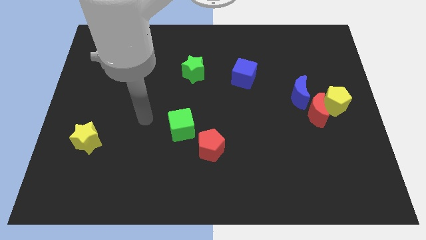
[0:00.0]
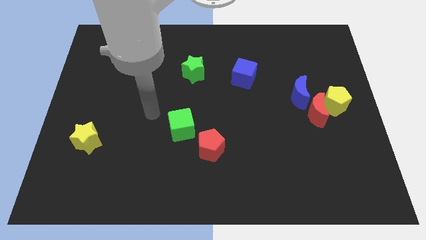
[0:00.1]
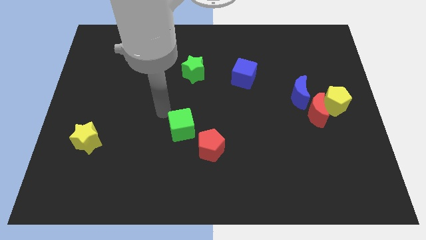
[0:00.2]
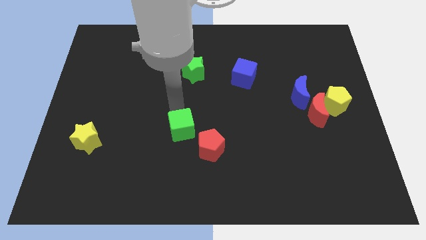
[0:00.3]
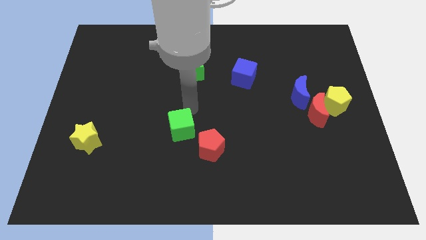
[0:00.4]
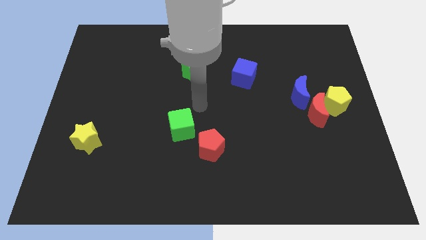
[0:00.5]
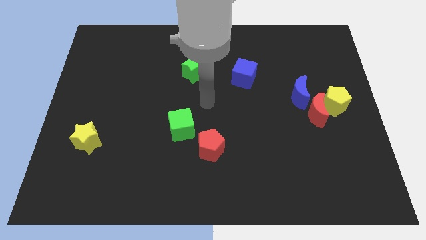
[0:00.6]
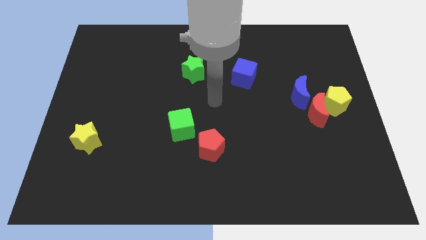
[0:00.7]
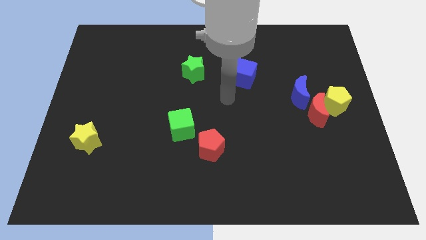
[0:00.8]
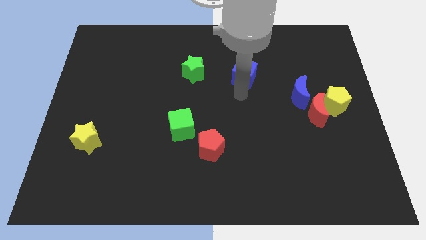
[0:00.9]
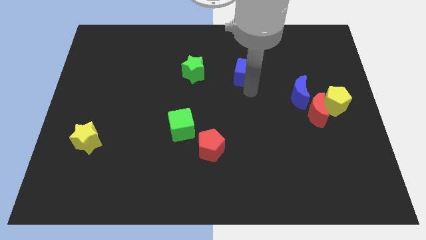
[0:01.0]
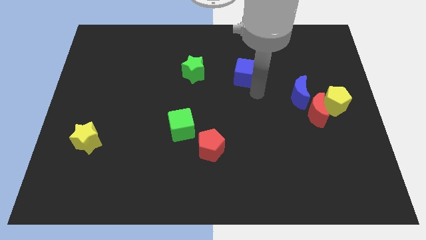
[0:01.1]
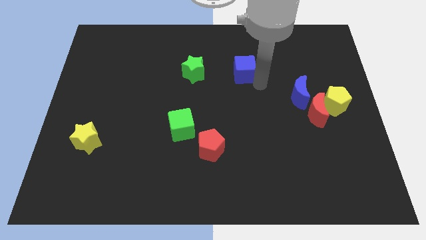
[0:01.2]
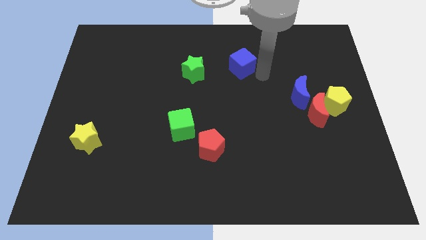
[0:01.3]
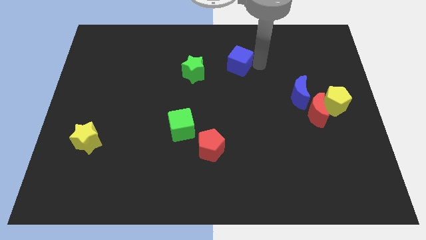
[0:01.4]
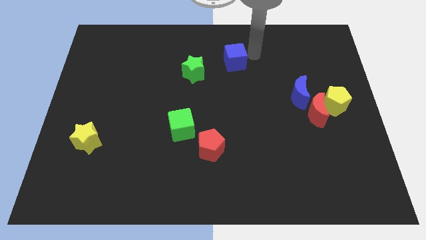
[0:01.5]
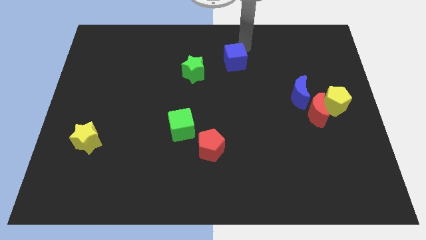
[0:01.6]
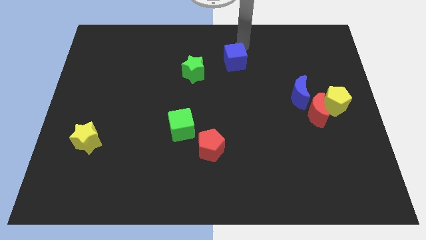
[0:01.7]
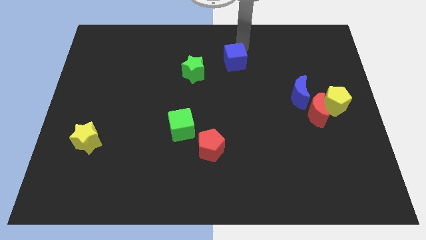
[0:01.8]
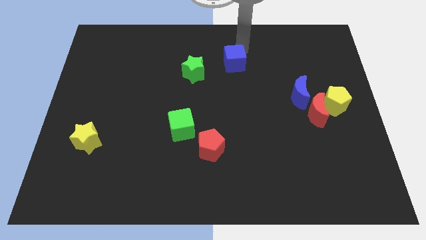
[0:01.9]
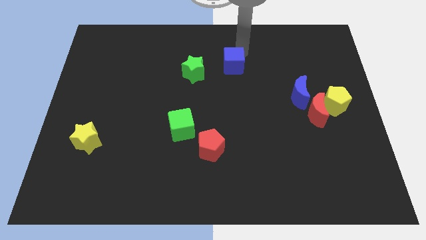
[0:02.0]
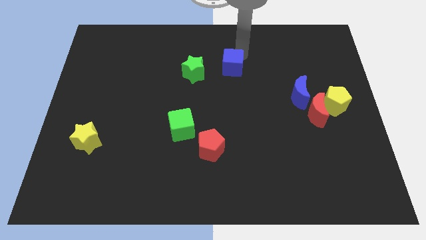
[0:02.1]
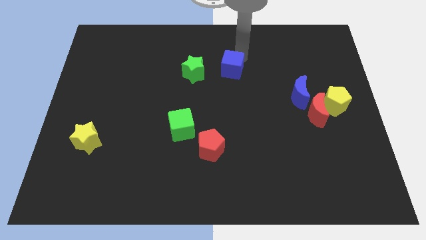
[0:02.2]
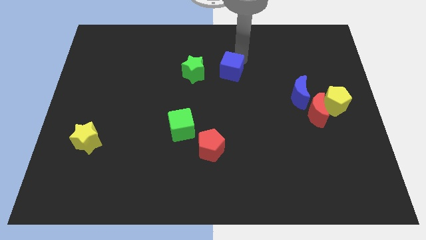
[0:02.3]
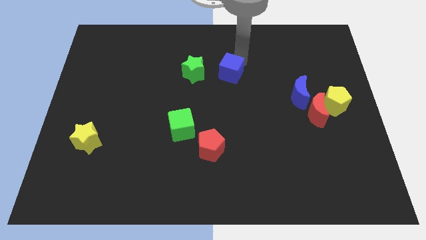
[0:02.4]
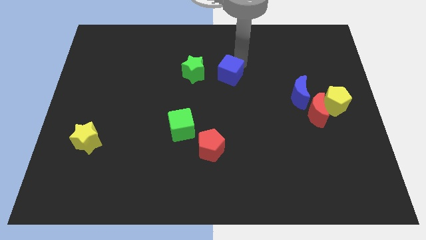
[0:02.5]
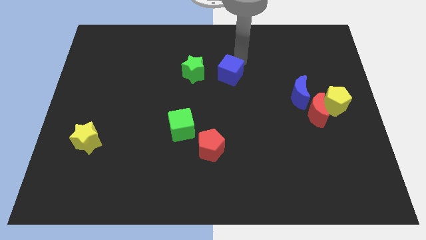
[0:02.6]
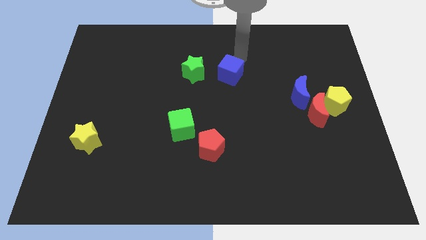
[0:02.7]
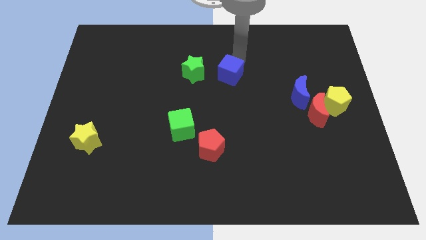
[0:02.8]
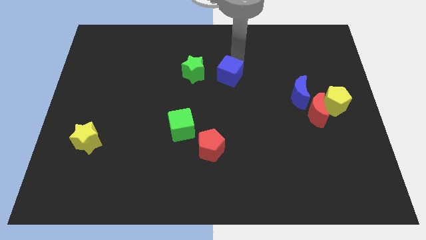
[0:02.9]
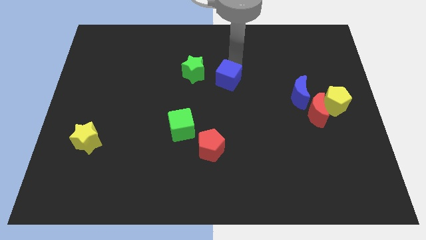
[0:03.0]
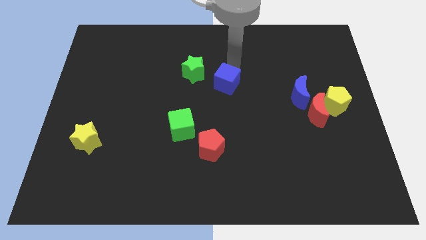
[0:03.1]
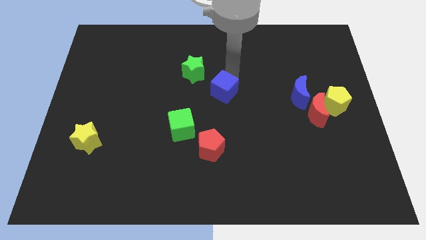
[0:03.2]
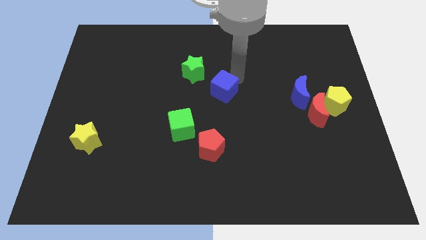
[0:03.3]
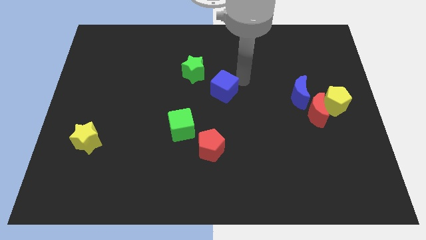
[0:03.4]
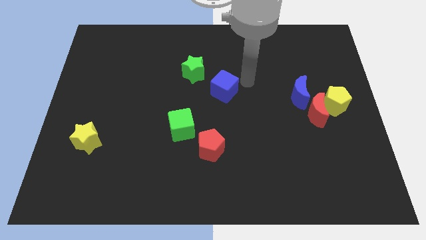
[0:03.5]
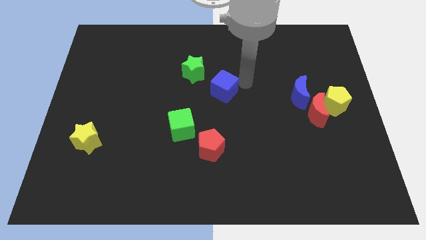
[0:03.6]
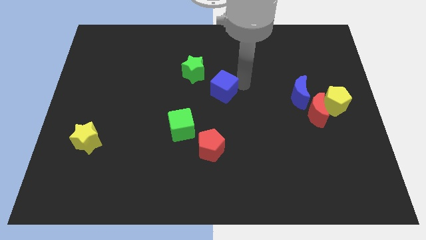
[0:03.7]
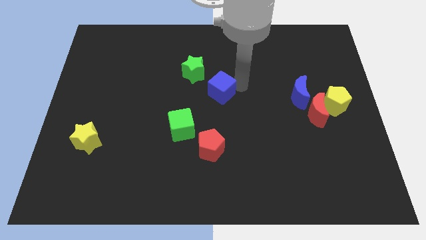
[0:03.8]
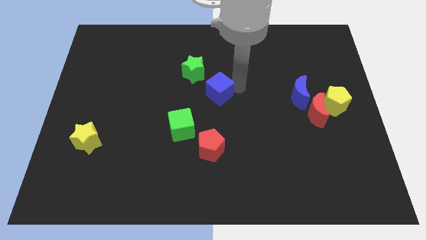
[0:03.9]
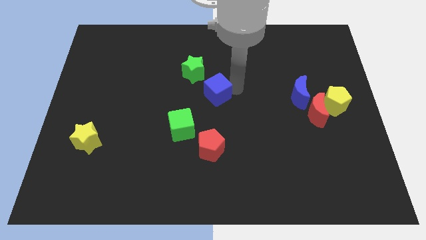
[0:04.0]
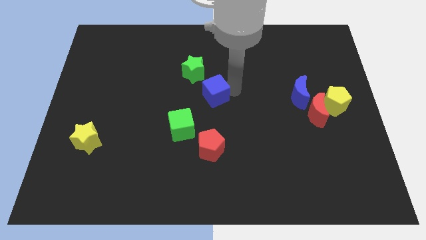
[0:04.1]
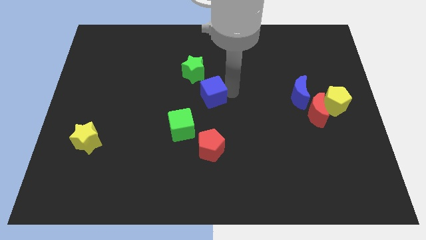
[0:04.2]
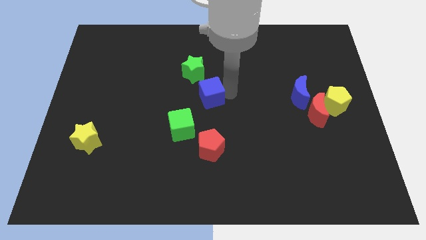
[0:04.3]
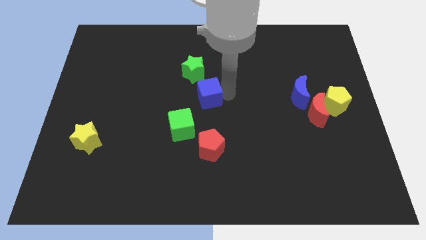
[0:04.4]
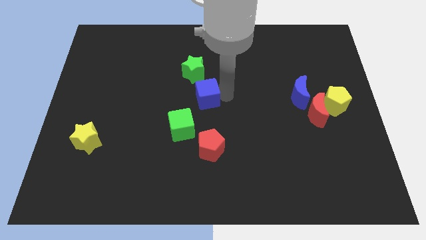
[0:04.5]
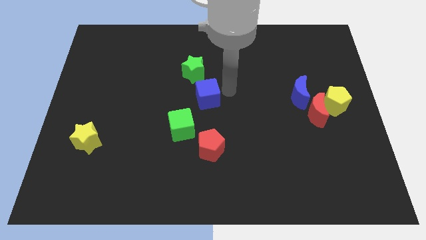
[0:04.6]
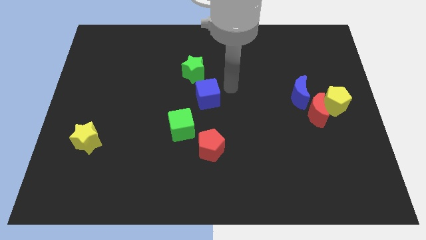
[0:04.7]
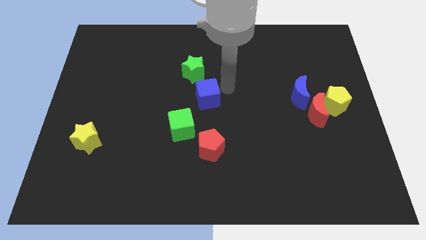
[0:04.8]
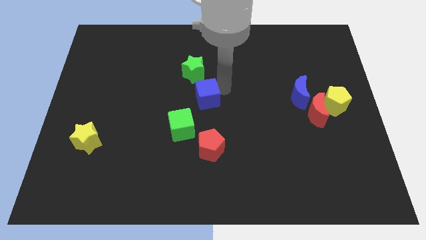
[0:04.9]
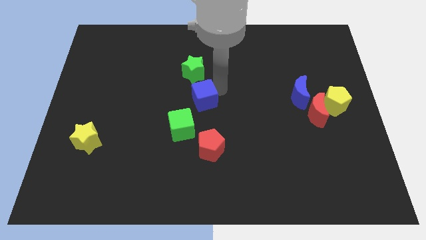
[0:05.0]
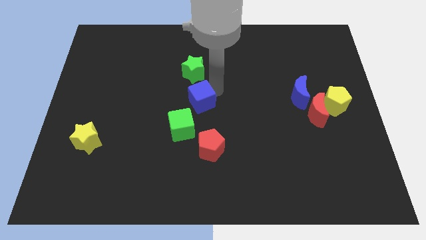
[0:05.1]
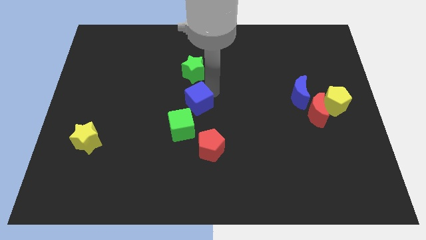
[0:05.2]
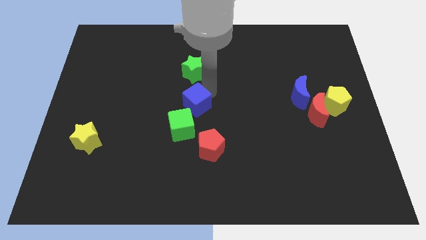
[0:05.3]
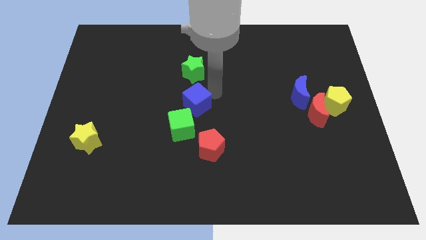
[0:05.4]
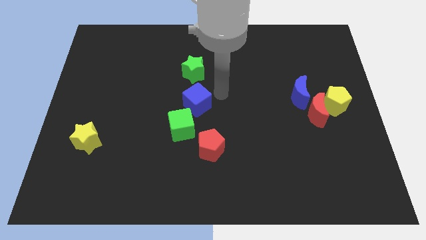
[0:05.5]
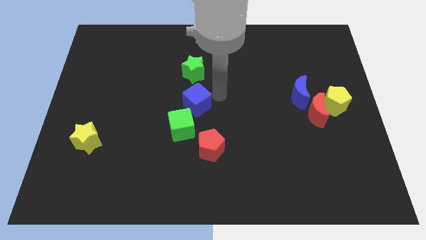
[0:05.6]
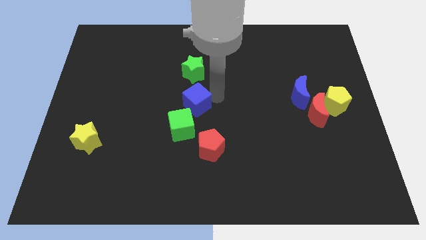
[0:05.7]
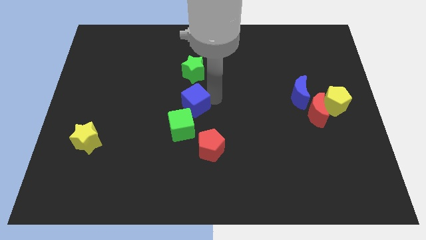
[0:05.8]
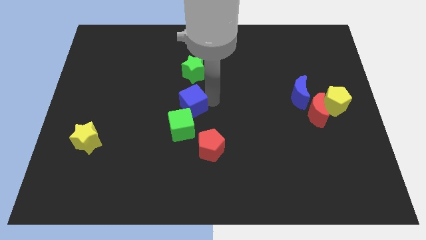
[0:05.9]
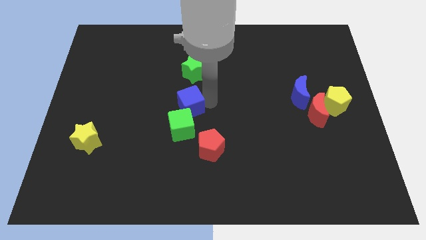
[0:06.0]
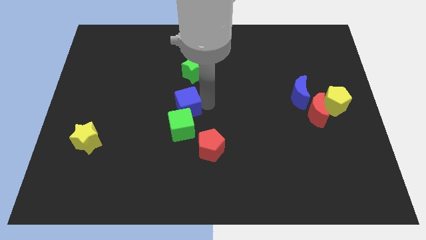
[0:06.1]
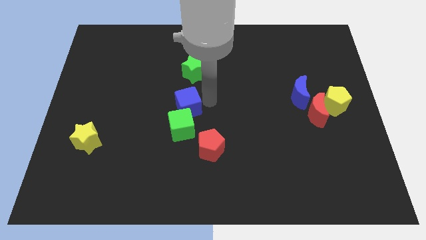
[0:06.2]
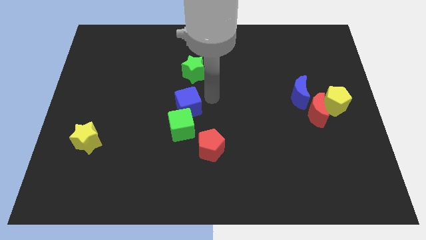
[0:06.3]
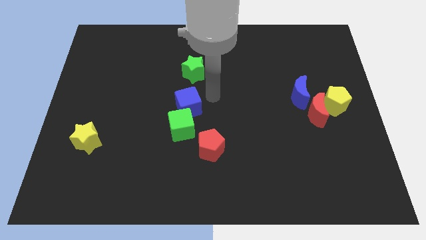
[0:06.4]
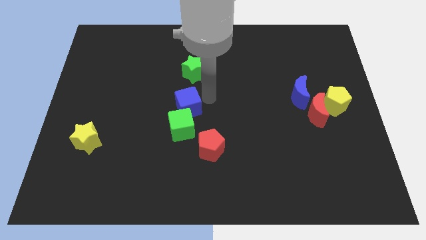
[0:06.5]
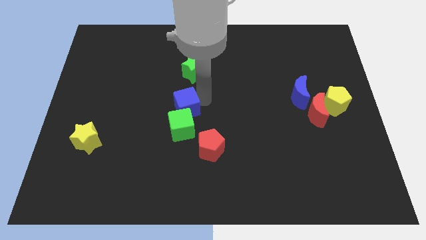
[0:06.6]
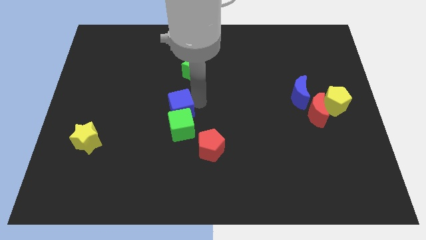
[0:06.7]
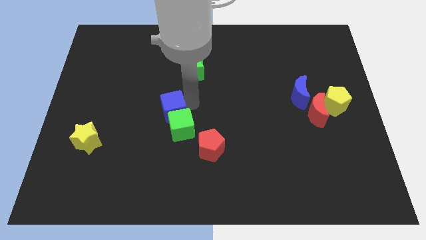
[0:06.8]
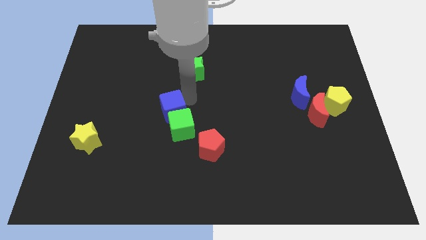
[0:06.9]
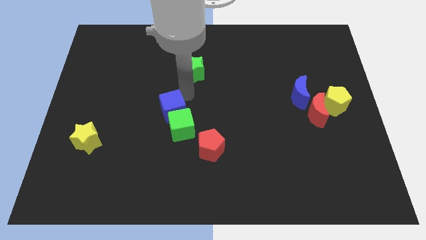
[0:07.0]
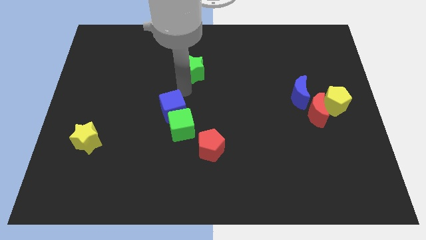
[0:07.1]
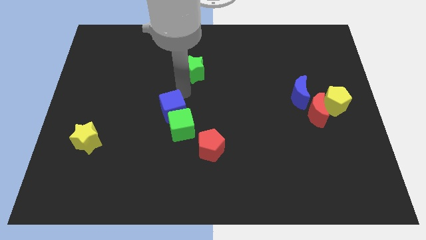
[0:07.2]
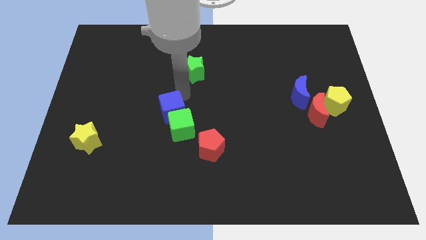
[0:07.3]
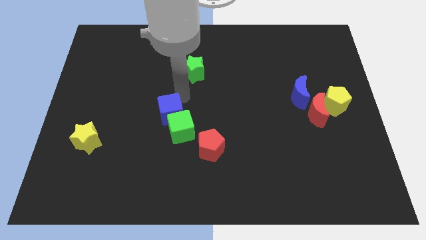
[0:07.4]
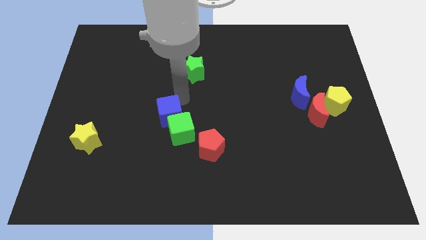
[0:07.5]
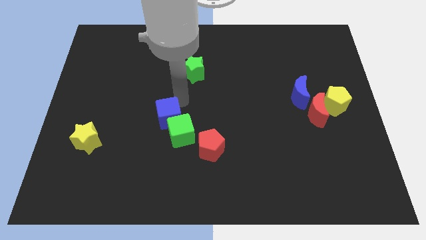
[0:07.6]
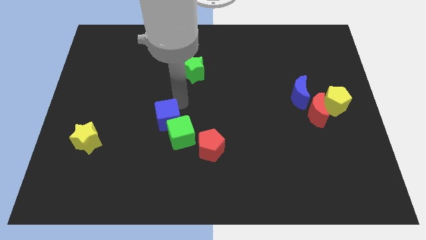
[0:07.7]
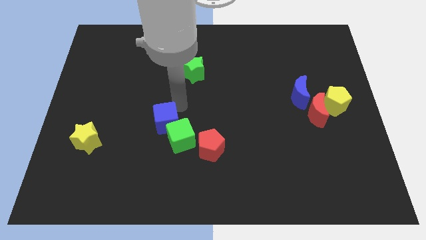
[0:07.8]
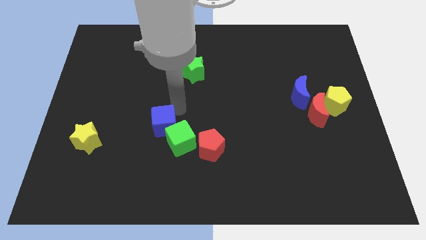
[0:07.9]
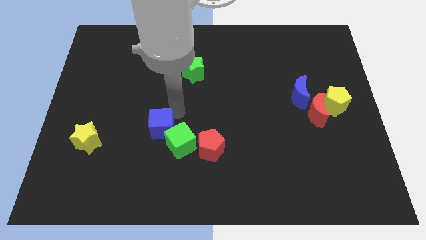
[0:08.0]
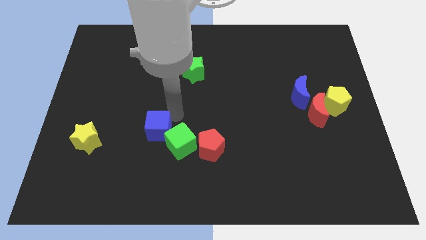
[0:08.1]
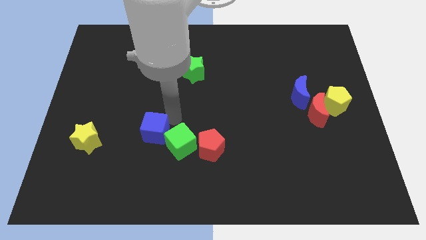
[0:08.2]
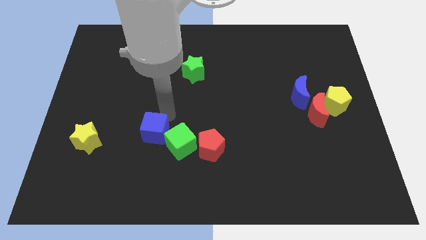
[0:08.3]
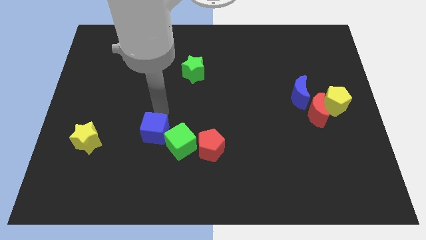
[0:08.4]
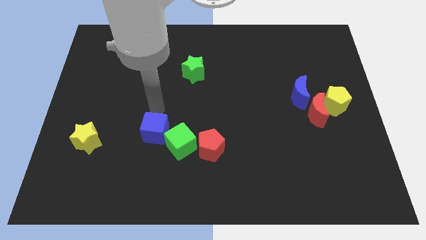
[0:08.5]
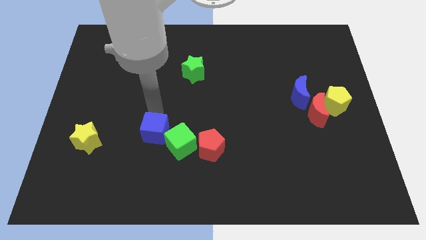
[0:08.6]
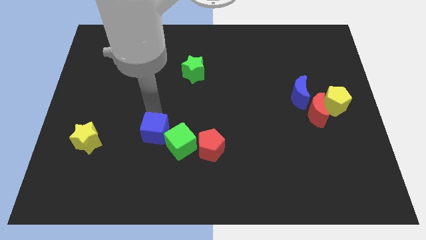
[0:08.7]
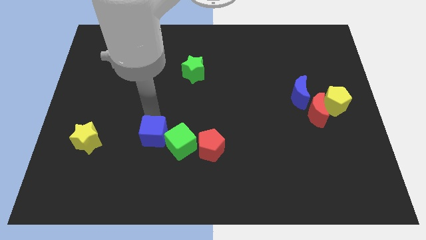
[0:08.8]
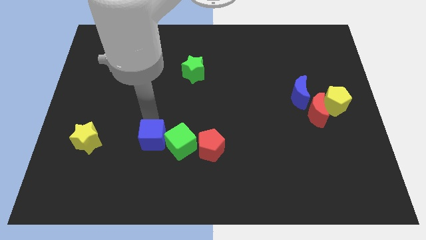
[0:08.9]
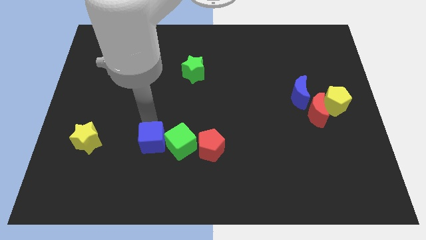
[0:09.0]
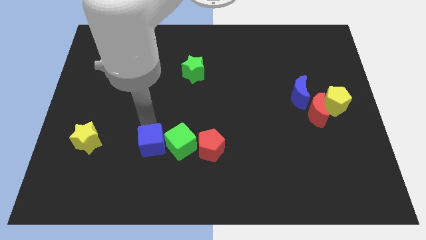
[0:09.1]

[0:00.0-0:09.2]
slide the blue cube to the bottom left side of the green cube
